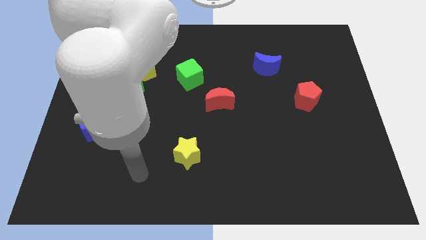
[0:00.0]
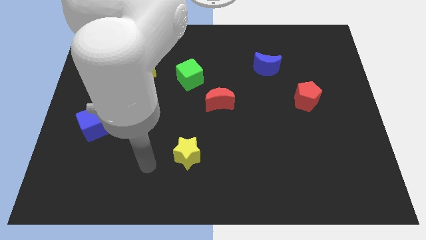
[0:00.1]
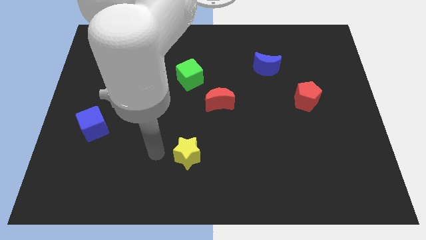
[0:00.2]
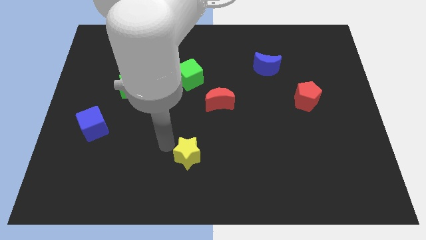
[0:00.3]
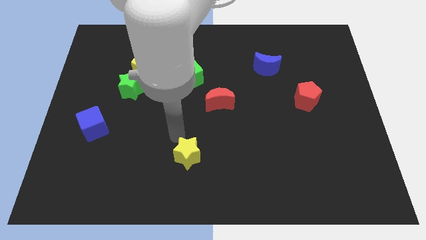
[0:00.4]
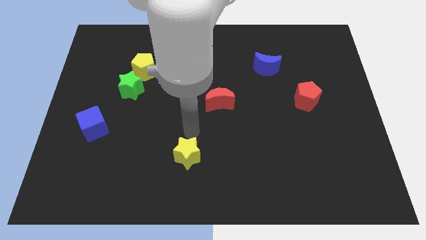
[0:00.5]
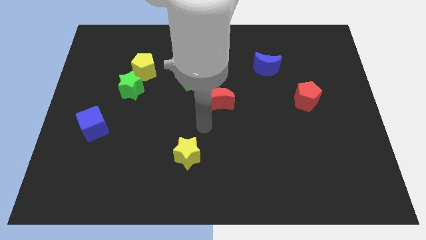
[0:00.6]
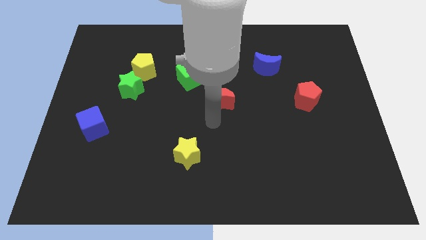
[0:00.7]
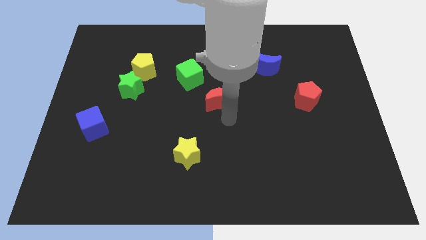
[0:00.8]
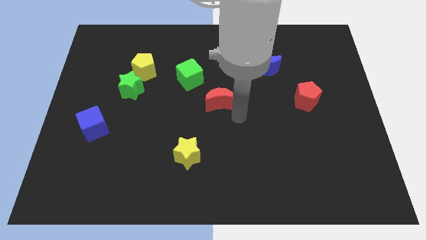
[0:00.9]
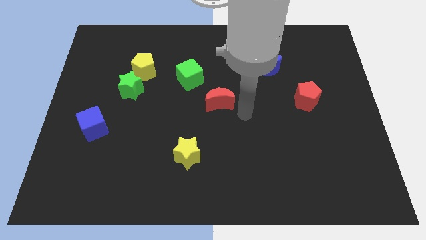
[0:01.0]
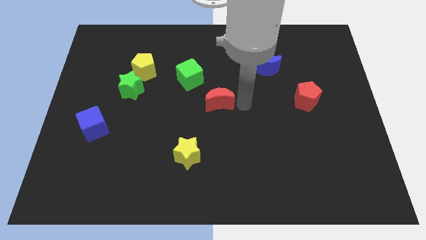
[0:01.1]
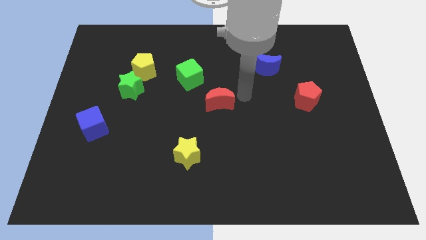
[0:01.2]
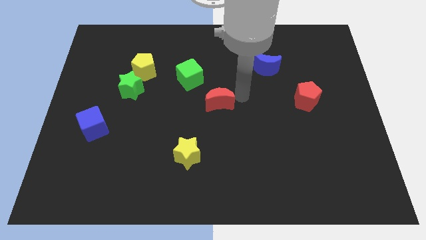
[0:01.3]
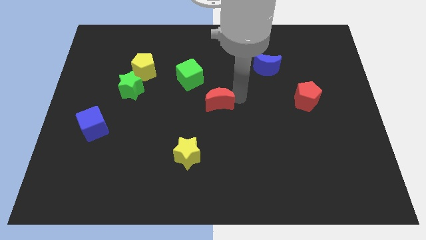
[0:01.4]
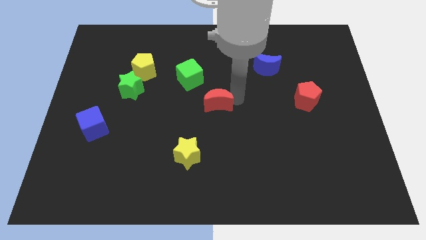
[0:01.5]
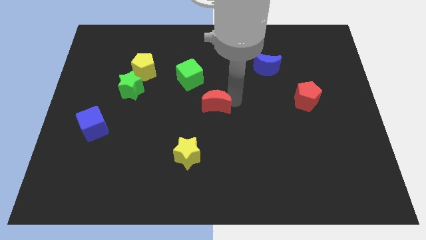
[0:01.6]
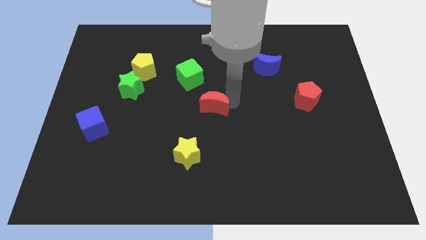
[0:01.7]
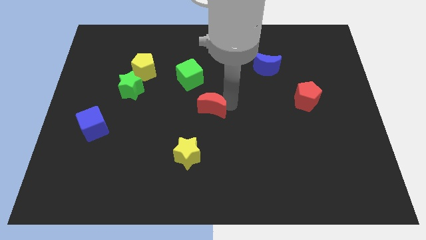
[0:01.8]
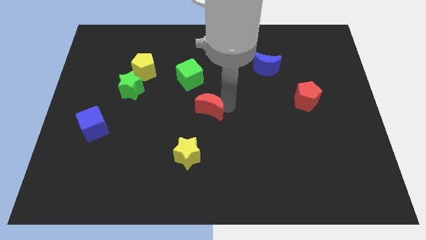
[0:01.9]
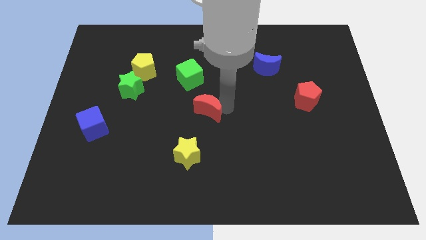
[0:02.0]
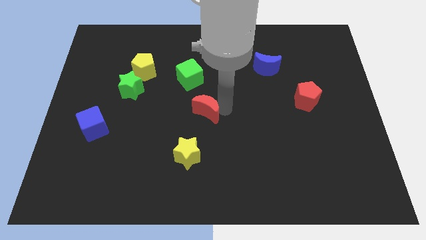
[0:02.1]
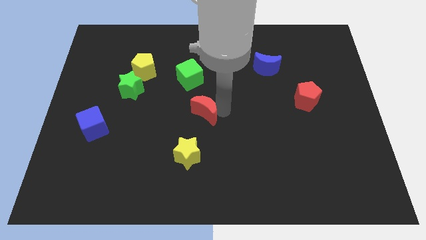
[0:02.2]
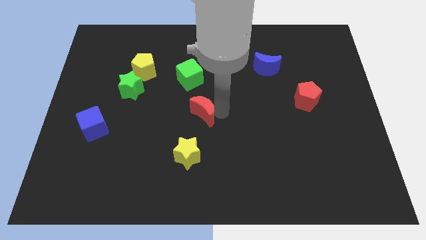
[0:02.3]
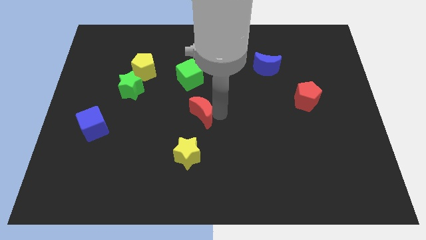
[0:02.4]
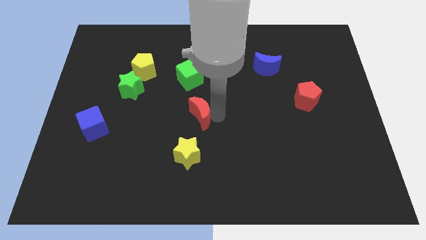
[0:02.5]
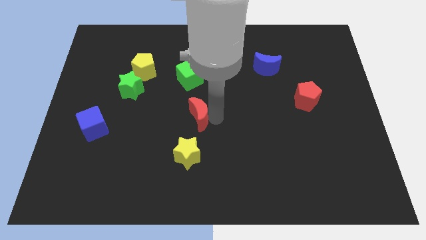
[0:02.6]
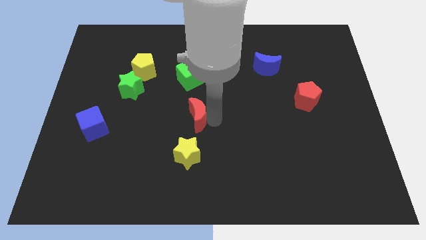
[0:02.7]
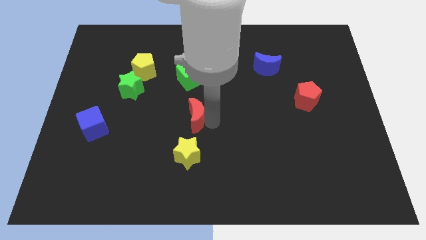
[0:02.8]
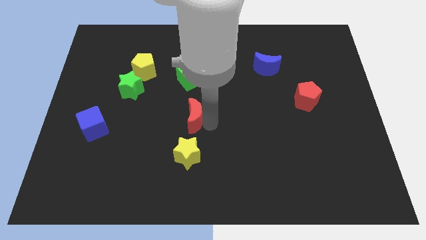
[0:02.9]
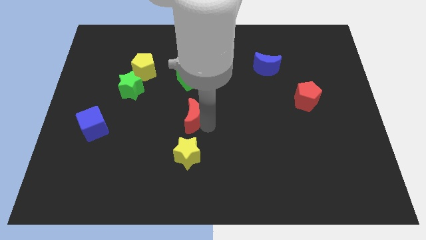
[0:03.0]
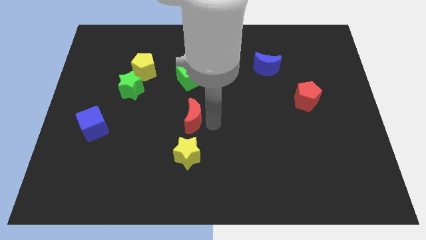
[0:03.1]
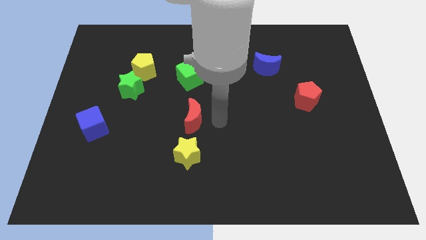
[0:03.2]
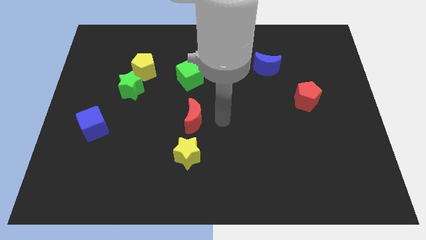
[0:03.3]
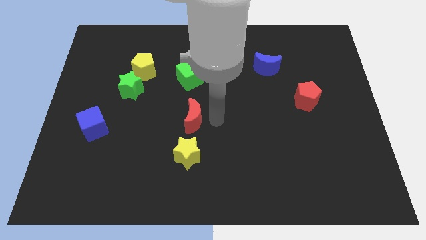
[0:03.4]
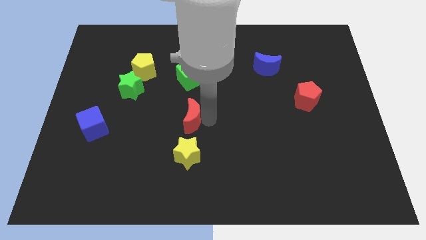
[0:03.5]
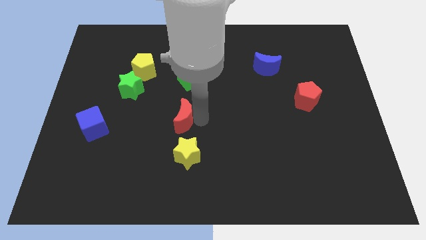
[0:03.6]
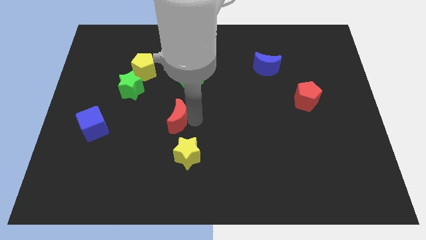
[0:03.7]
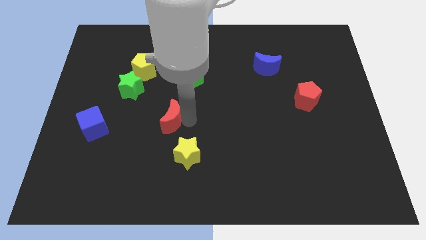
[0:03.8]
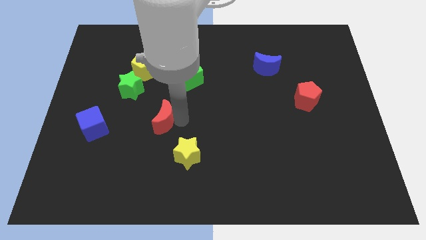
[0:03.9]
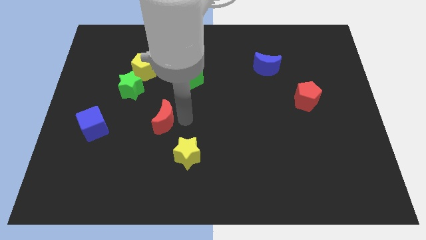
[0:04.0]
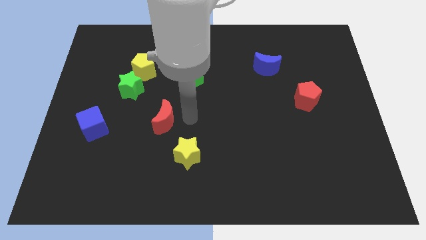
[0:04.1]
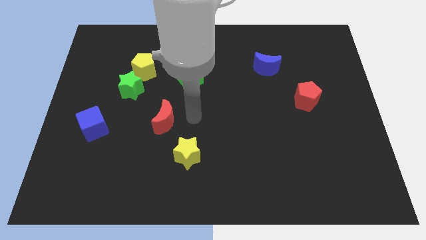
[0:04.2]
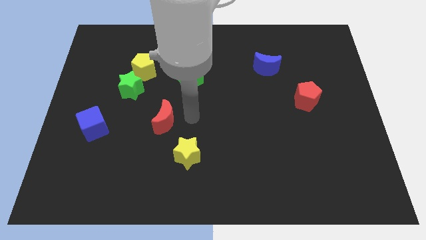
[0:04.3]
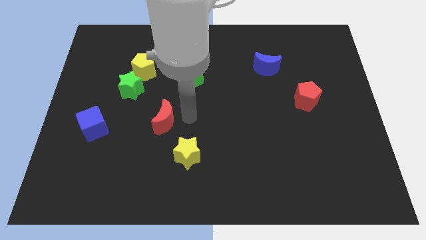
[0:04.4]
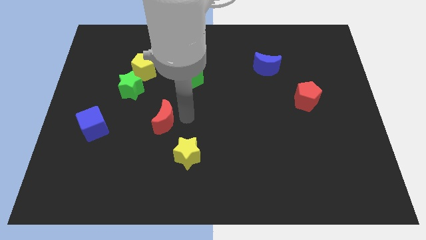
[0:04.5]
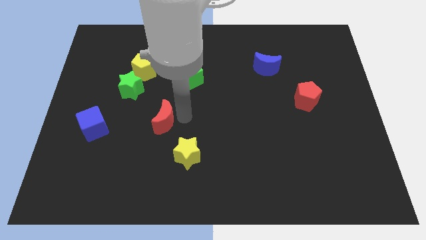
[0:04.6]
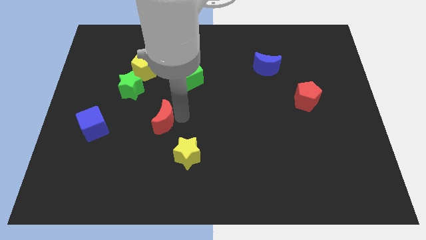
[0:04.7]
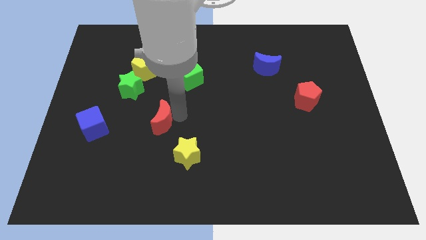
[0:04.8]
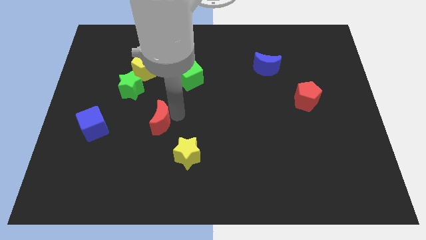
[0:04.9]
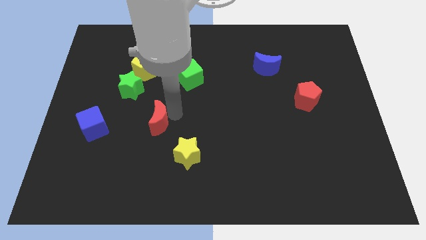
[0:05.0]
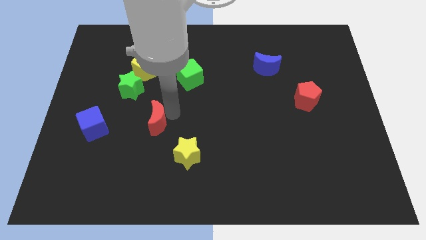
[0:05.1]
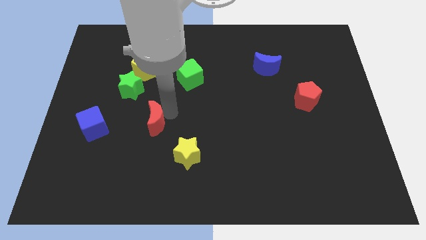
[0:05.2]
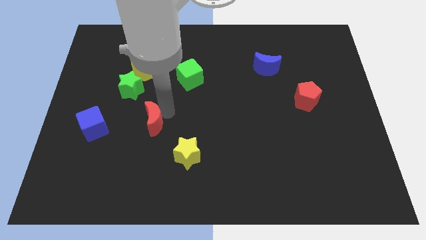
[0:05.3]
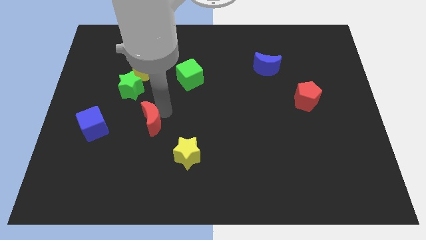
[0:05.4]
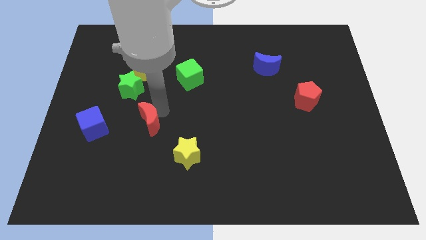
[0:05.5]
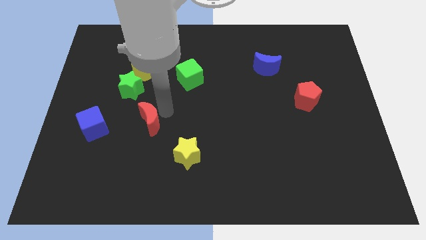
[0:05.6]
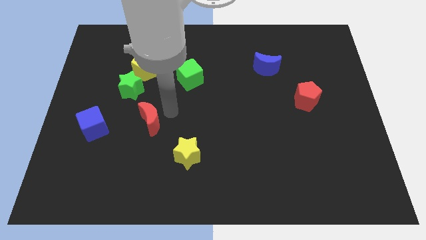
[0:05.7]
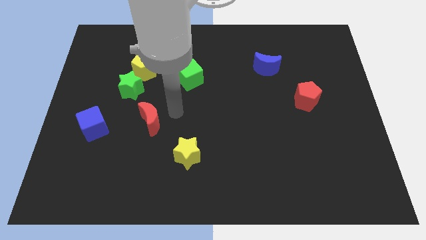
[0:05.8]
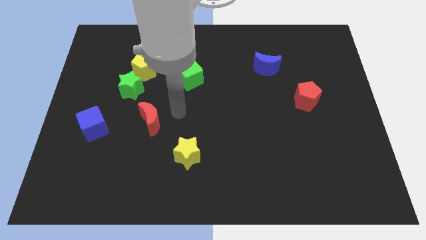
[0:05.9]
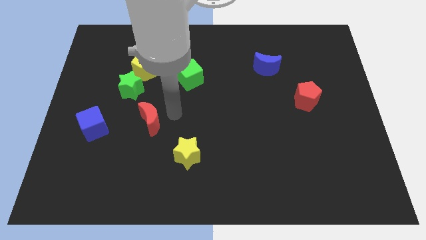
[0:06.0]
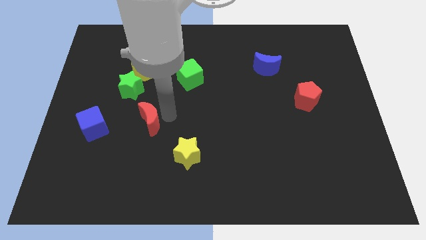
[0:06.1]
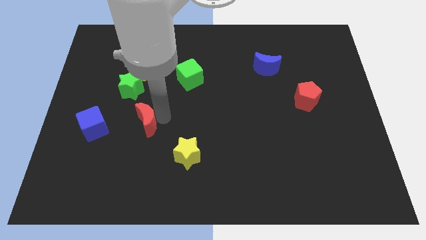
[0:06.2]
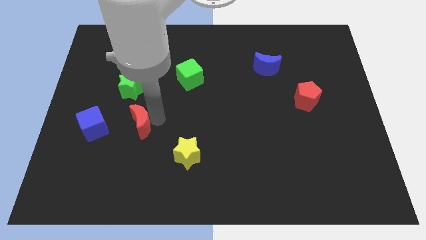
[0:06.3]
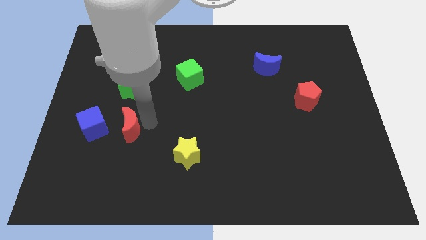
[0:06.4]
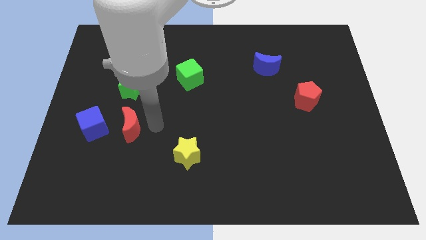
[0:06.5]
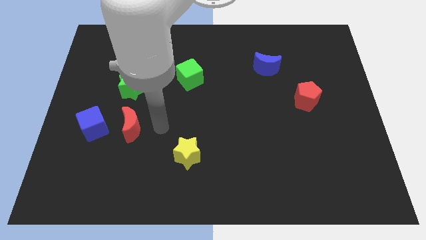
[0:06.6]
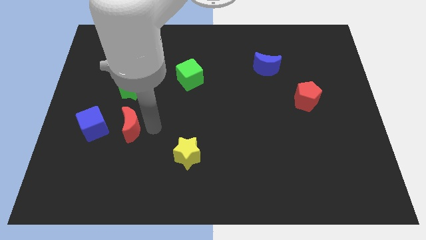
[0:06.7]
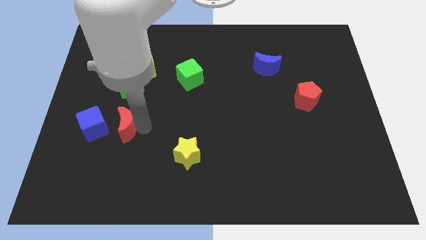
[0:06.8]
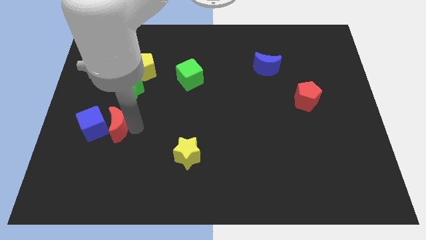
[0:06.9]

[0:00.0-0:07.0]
push the red moon close to the blue cube
